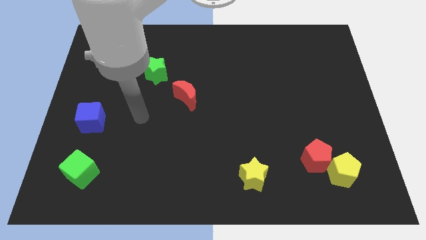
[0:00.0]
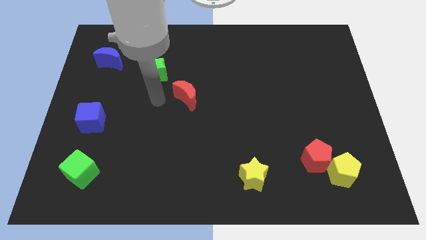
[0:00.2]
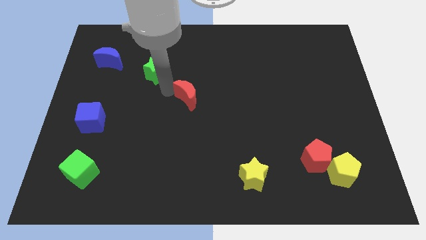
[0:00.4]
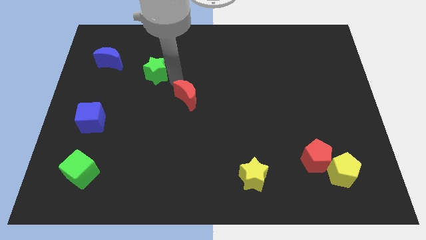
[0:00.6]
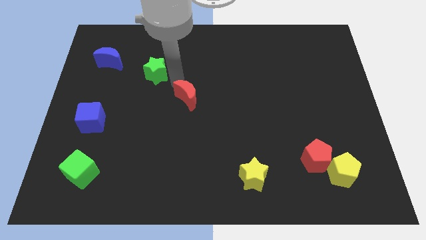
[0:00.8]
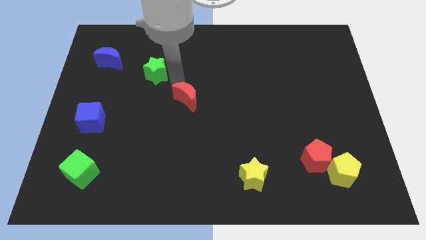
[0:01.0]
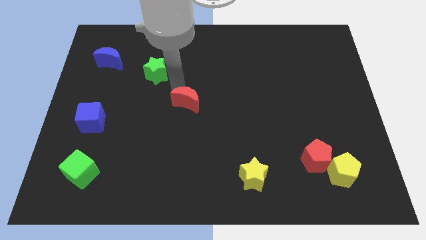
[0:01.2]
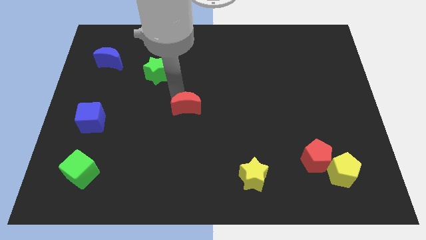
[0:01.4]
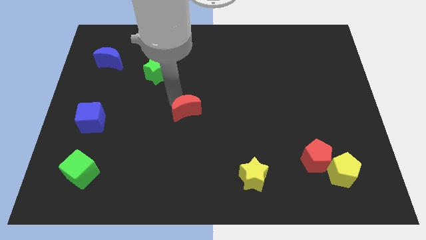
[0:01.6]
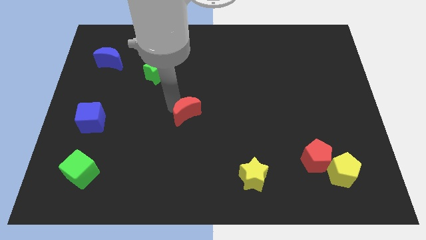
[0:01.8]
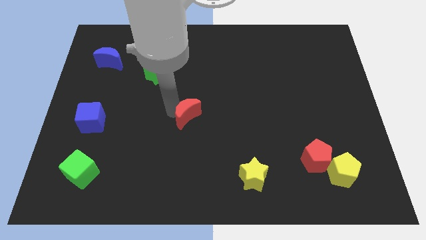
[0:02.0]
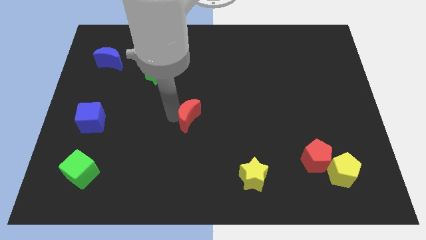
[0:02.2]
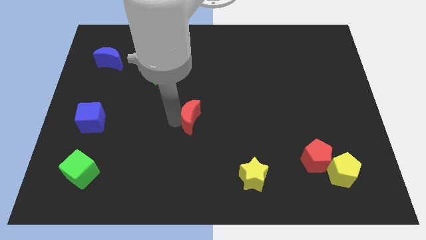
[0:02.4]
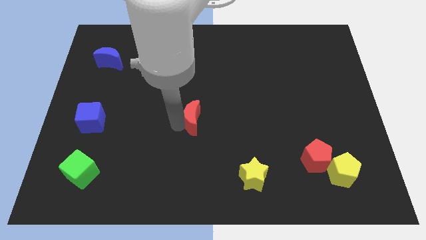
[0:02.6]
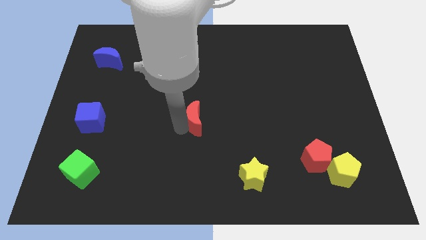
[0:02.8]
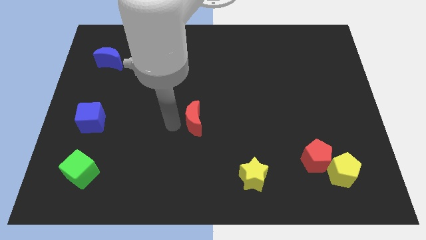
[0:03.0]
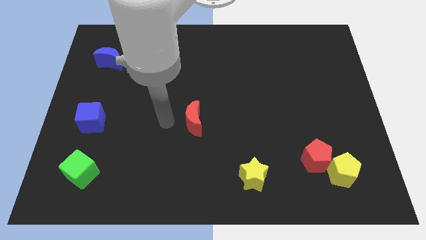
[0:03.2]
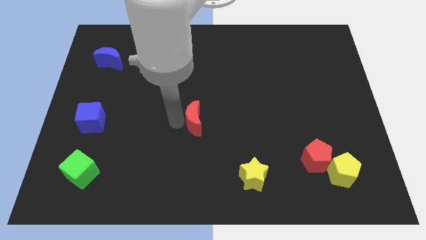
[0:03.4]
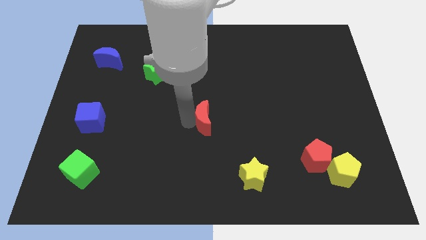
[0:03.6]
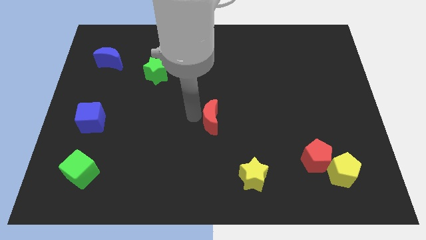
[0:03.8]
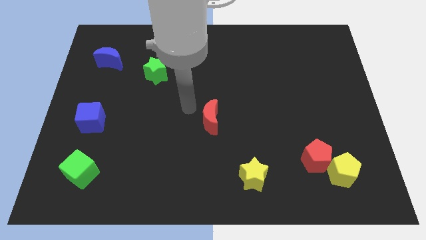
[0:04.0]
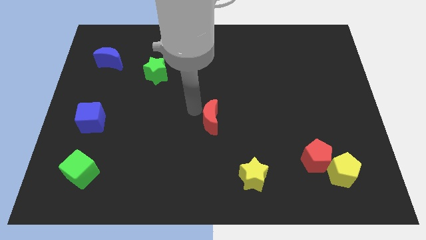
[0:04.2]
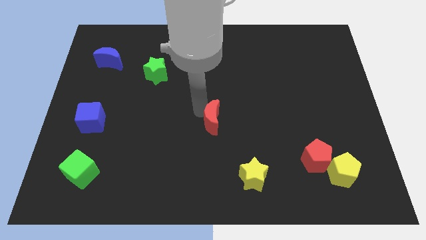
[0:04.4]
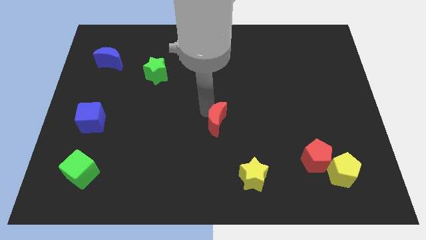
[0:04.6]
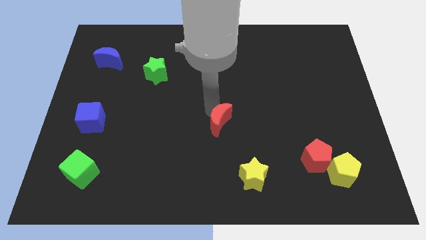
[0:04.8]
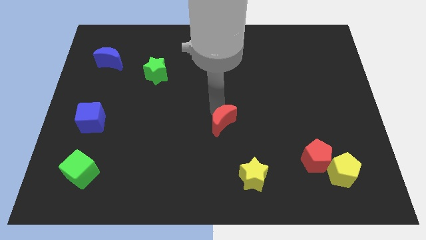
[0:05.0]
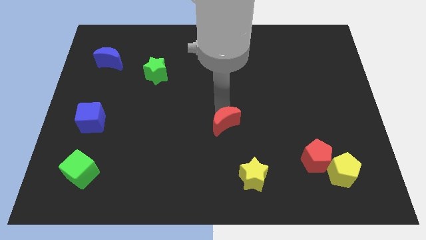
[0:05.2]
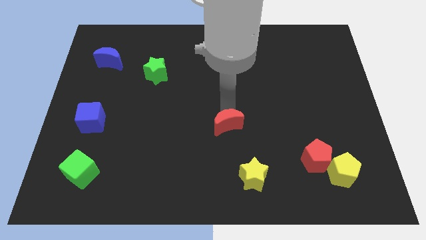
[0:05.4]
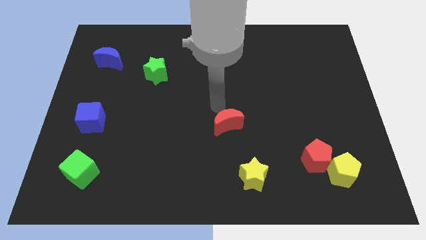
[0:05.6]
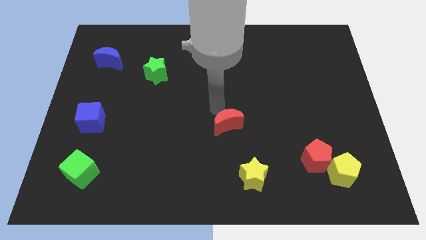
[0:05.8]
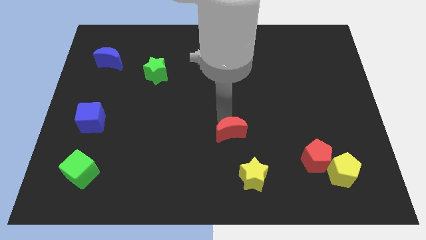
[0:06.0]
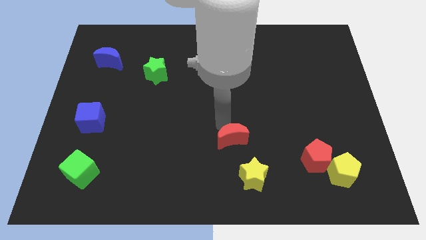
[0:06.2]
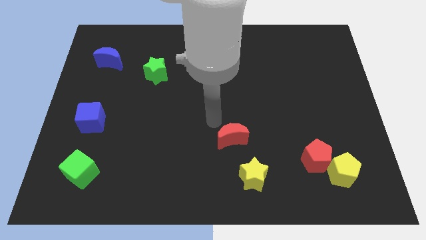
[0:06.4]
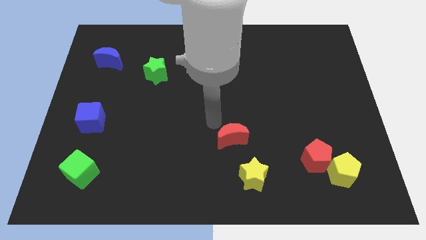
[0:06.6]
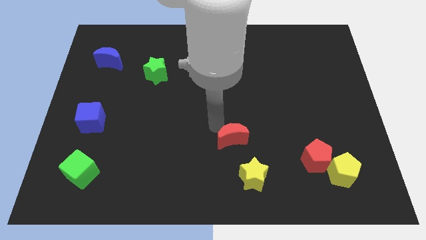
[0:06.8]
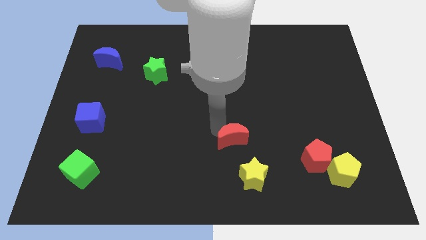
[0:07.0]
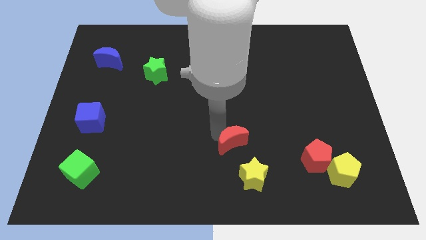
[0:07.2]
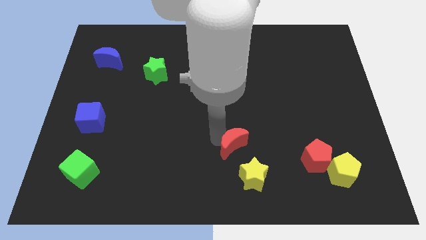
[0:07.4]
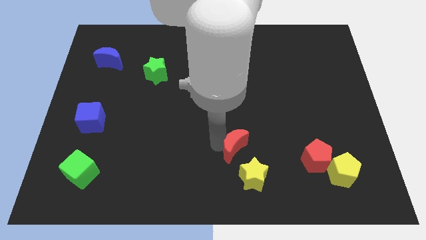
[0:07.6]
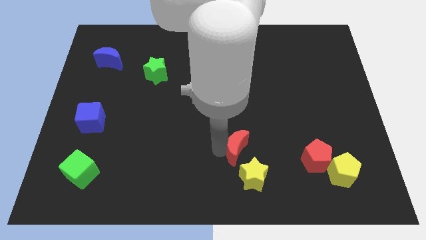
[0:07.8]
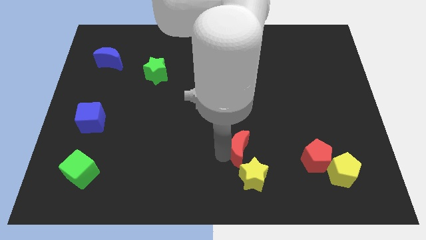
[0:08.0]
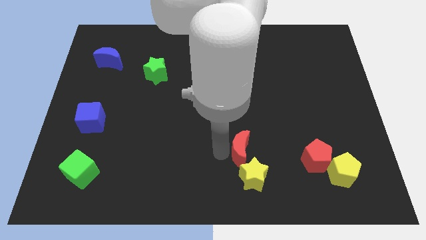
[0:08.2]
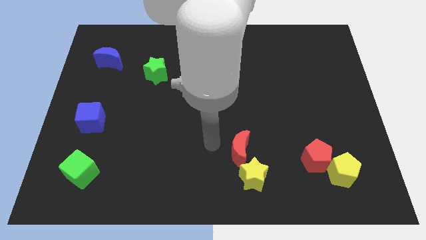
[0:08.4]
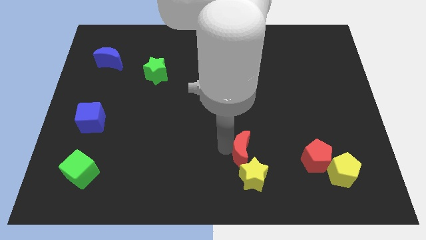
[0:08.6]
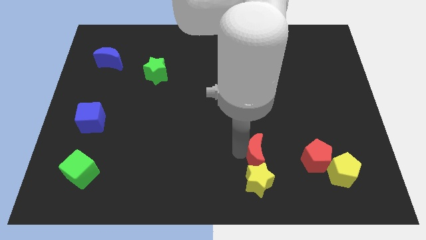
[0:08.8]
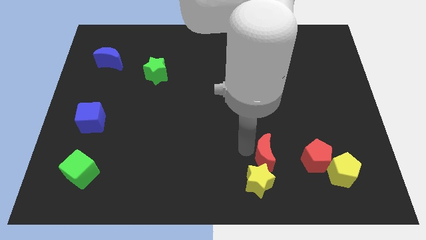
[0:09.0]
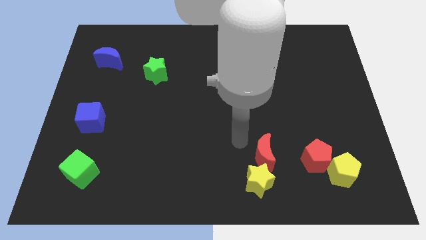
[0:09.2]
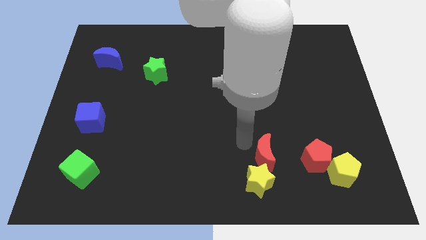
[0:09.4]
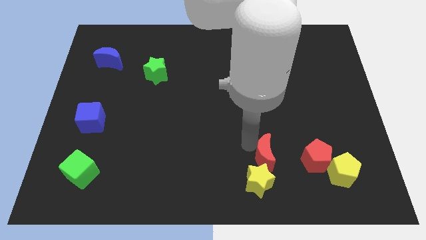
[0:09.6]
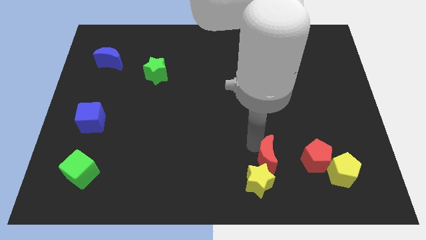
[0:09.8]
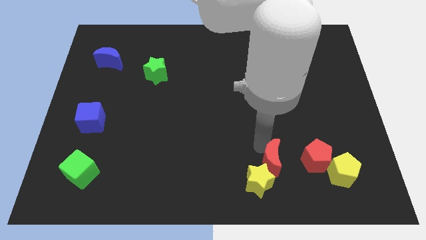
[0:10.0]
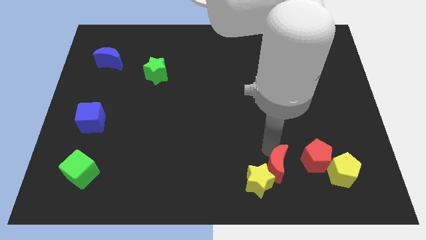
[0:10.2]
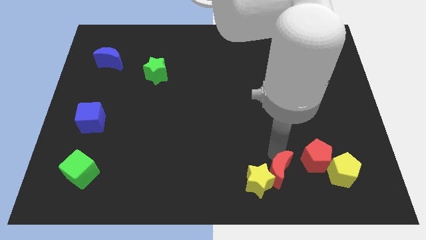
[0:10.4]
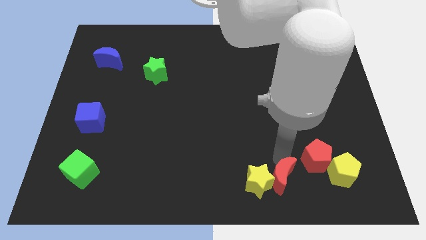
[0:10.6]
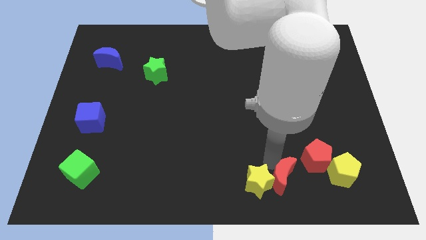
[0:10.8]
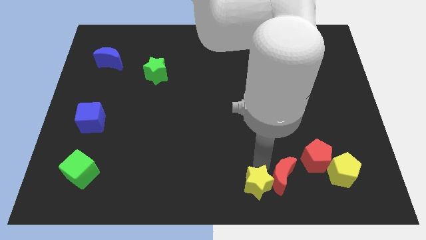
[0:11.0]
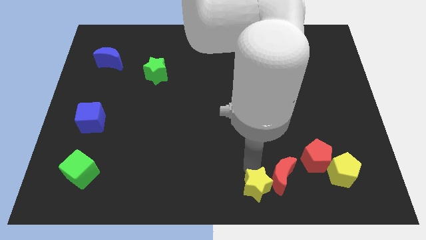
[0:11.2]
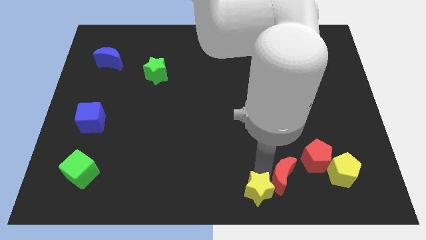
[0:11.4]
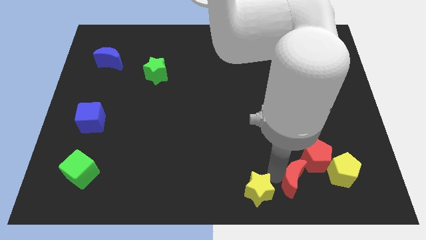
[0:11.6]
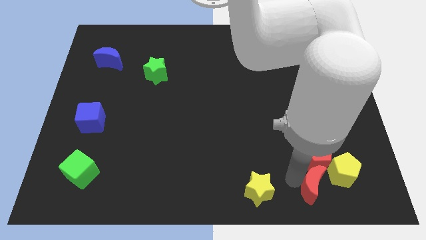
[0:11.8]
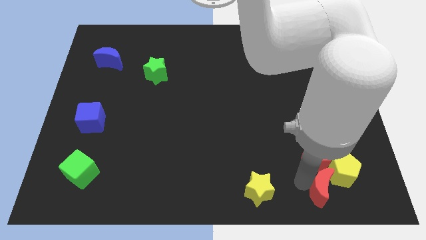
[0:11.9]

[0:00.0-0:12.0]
move the red moon to the bottom right side of the red pentagon

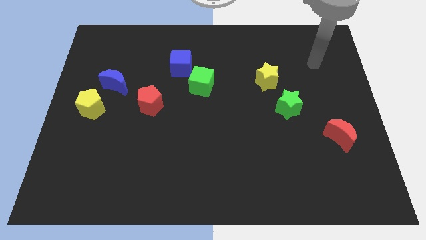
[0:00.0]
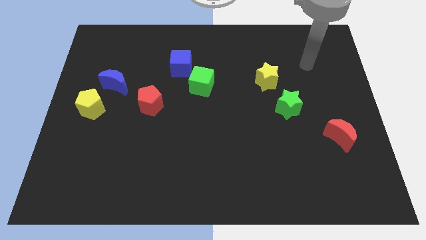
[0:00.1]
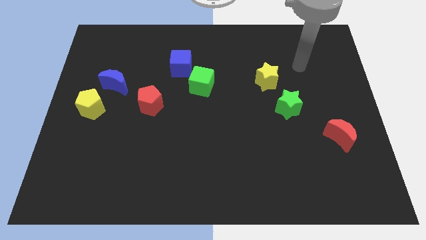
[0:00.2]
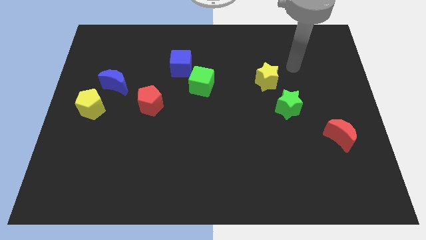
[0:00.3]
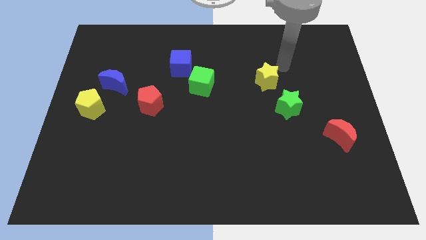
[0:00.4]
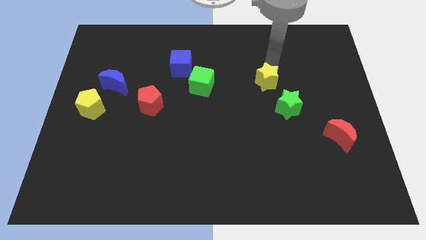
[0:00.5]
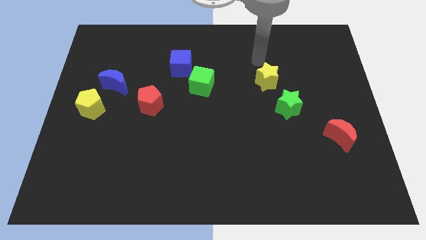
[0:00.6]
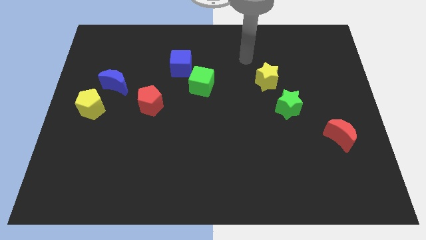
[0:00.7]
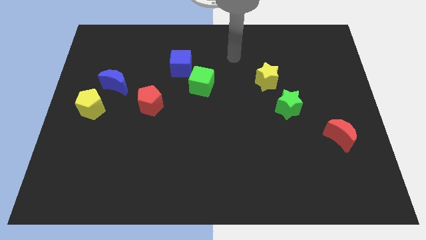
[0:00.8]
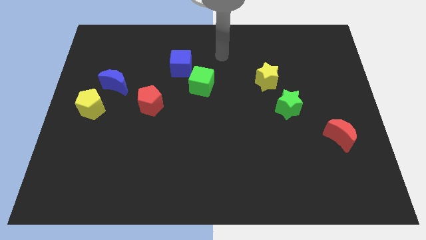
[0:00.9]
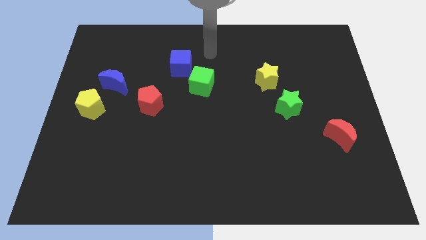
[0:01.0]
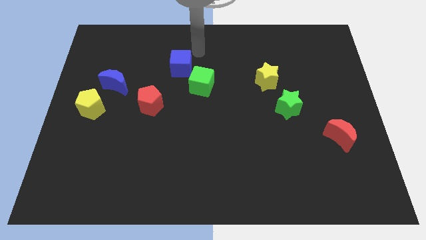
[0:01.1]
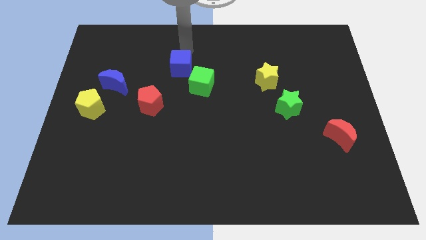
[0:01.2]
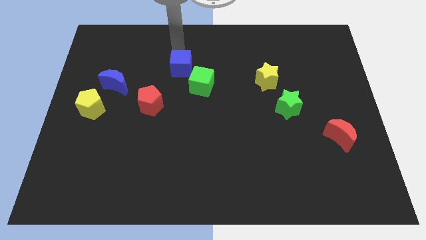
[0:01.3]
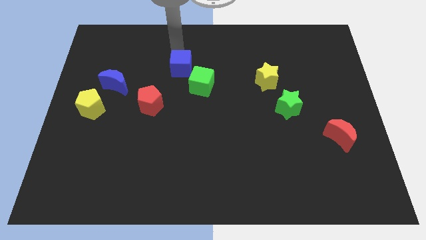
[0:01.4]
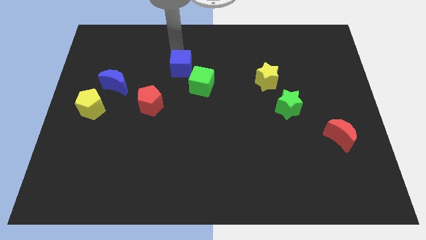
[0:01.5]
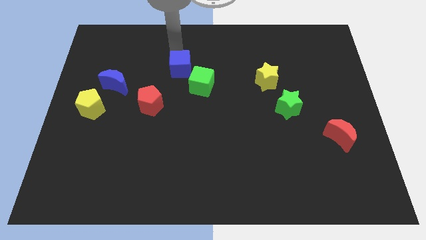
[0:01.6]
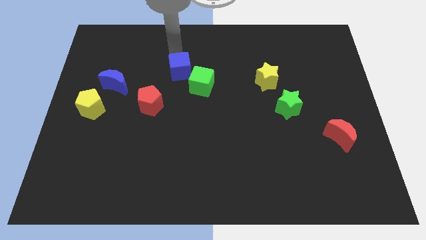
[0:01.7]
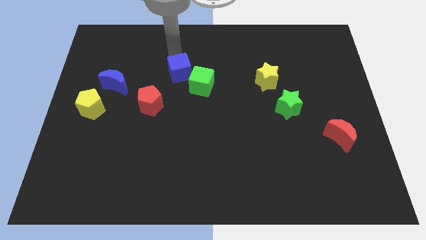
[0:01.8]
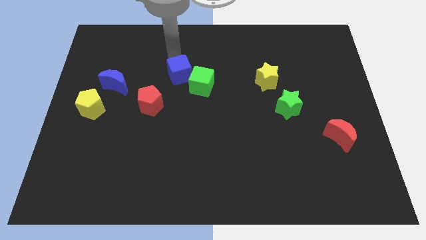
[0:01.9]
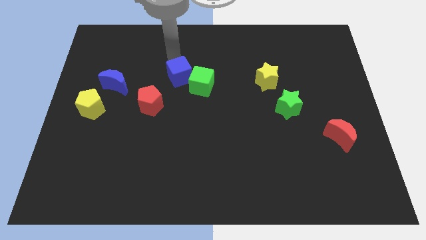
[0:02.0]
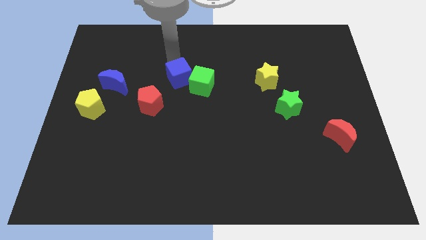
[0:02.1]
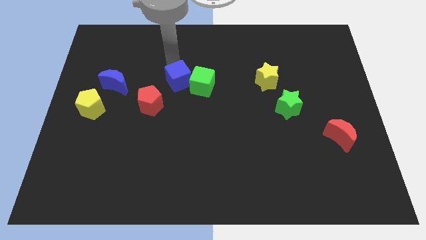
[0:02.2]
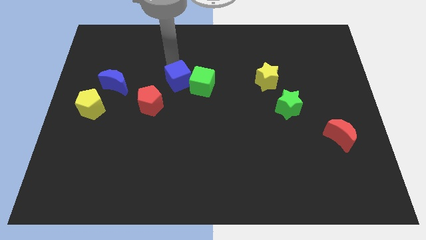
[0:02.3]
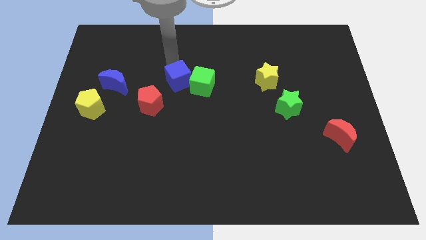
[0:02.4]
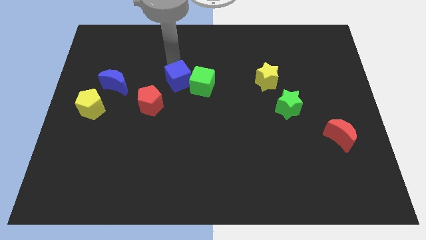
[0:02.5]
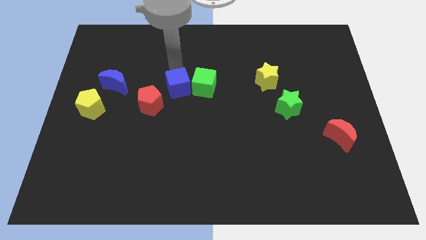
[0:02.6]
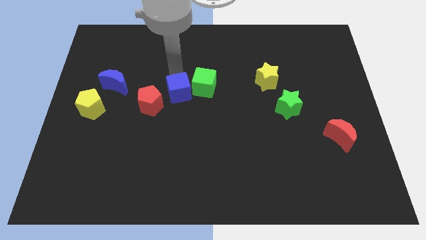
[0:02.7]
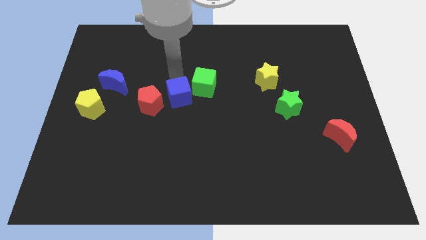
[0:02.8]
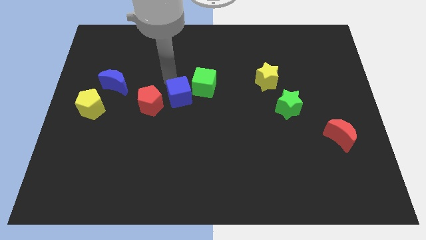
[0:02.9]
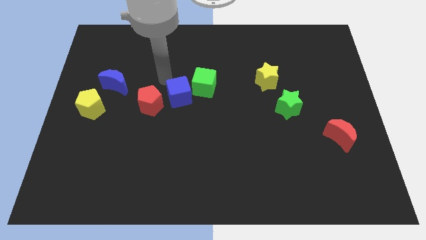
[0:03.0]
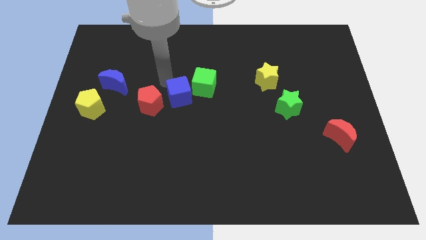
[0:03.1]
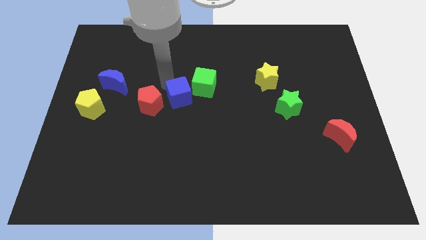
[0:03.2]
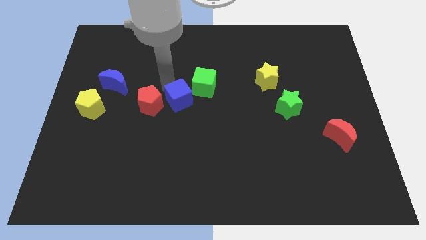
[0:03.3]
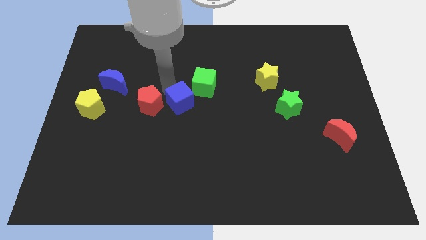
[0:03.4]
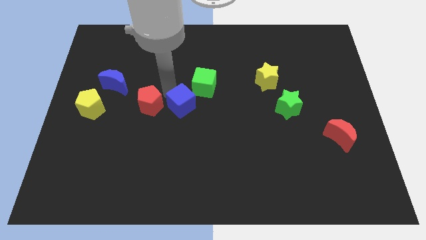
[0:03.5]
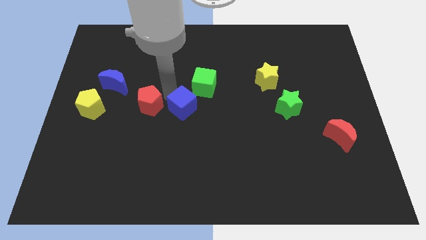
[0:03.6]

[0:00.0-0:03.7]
put the blue cube to the bottom of the green cube
